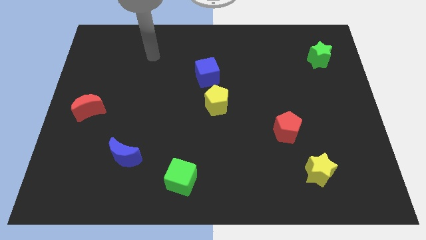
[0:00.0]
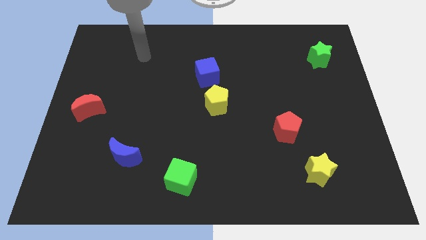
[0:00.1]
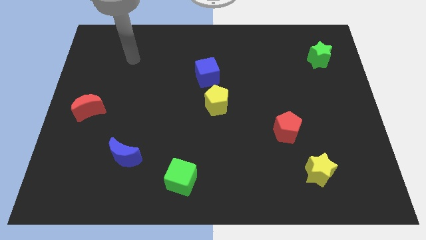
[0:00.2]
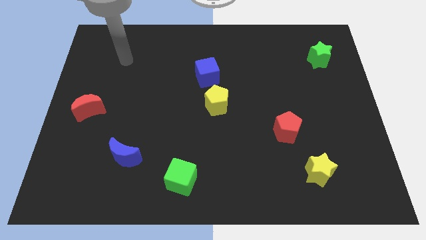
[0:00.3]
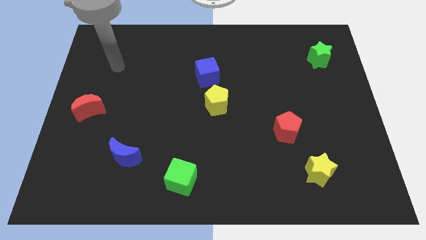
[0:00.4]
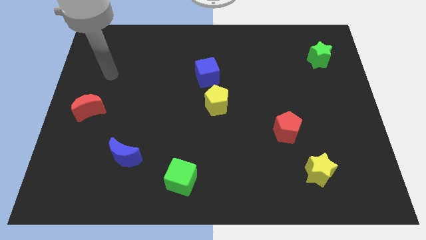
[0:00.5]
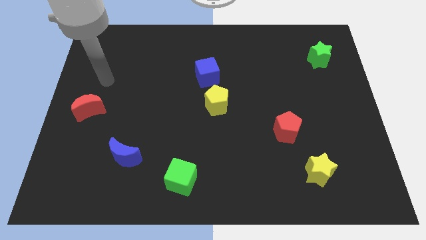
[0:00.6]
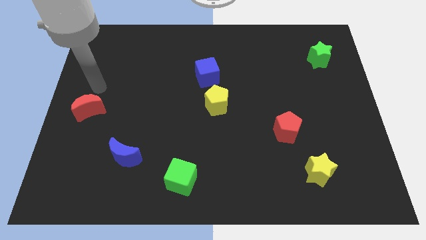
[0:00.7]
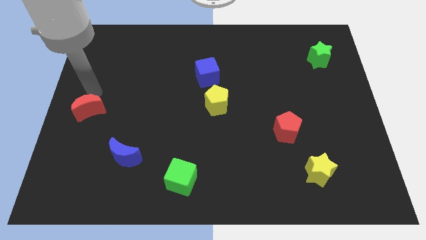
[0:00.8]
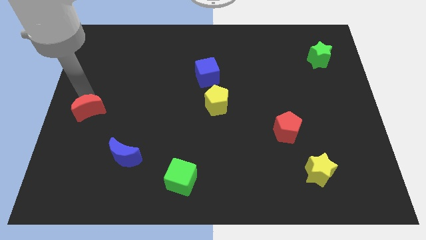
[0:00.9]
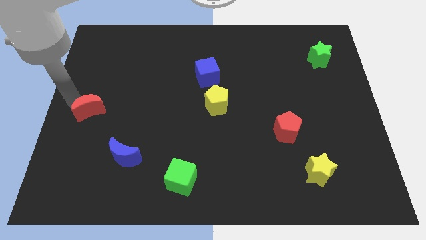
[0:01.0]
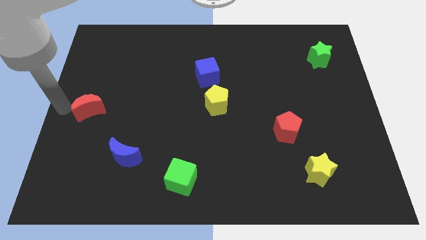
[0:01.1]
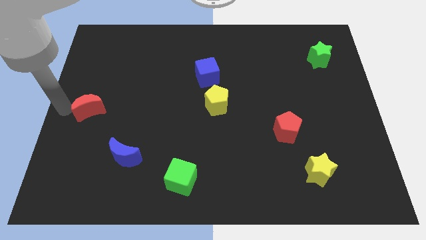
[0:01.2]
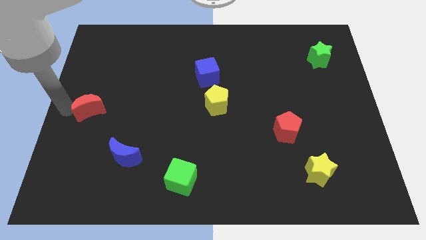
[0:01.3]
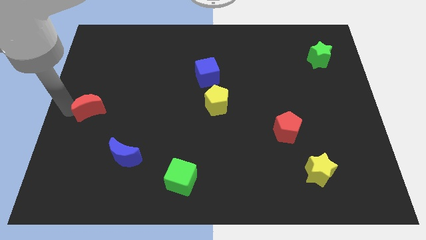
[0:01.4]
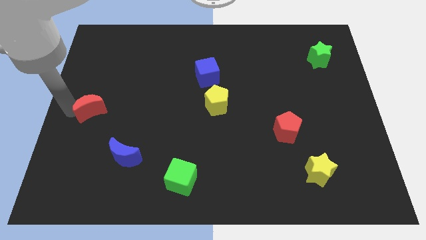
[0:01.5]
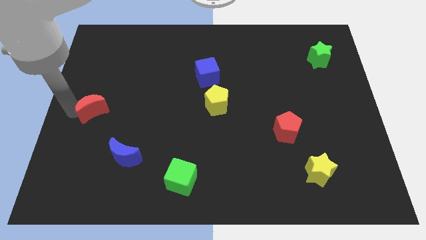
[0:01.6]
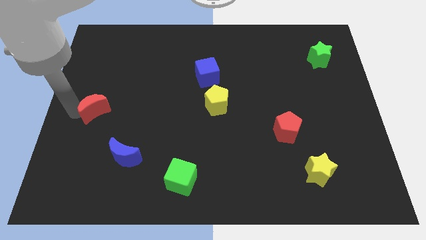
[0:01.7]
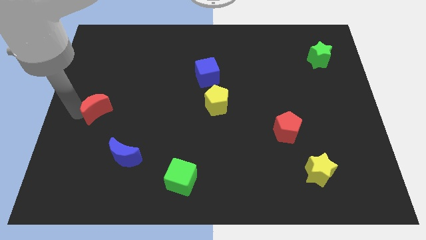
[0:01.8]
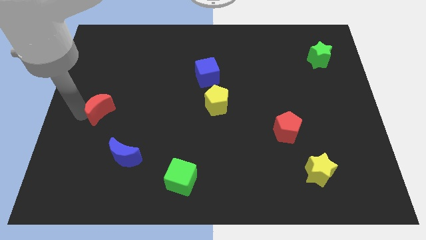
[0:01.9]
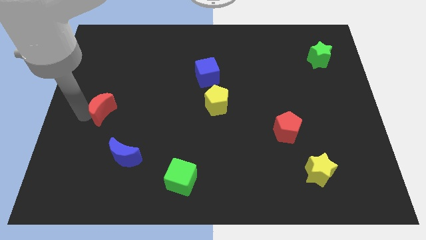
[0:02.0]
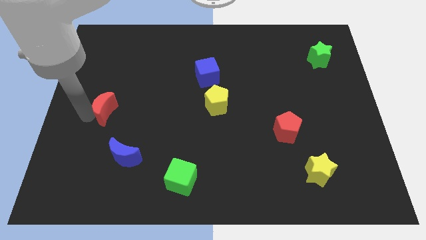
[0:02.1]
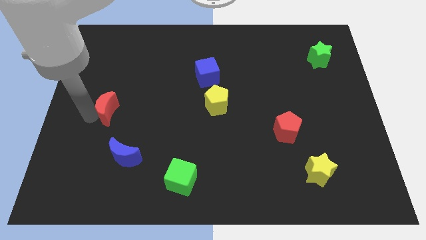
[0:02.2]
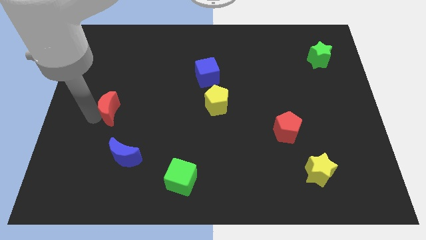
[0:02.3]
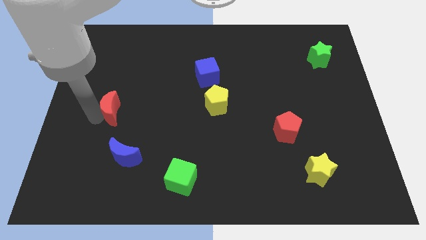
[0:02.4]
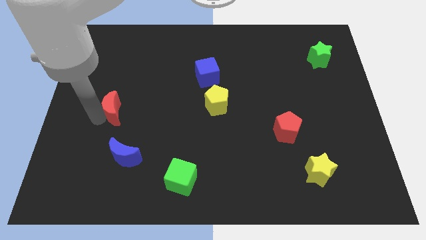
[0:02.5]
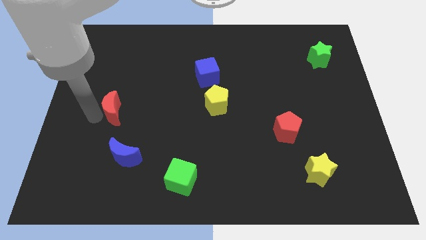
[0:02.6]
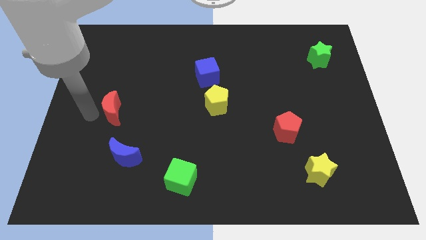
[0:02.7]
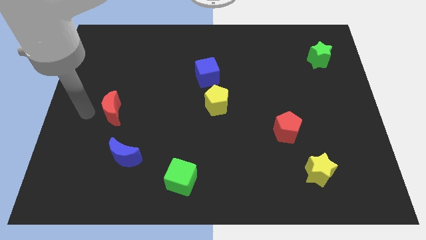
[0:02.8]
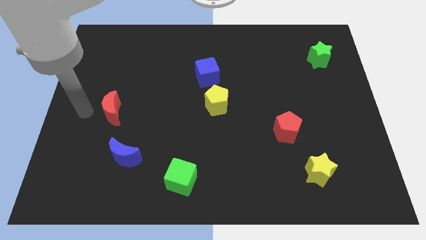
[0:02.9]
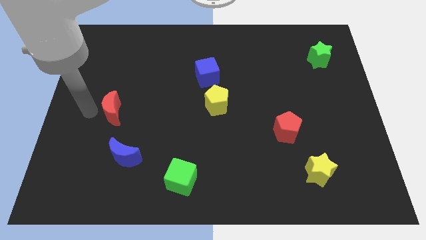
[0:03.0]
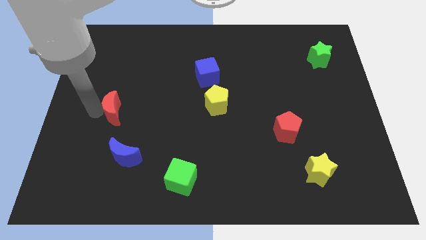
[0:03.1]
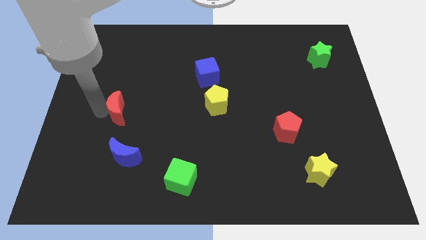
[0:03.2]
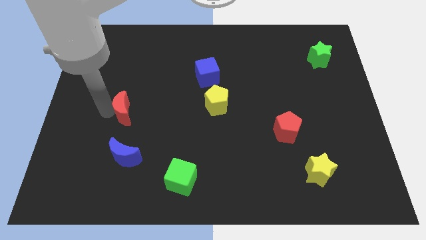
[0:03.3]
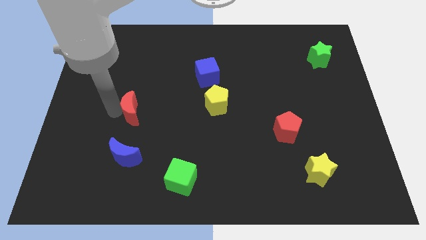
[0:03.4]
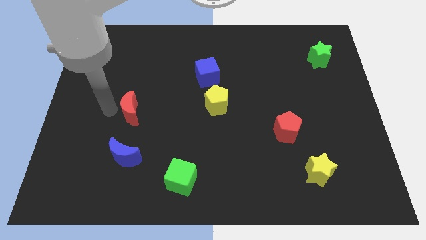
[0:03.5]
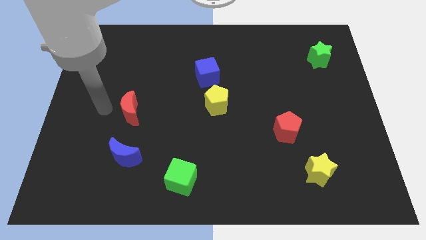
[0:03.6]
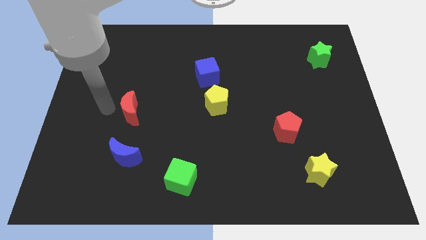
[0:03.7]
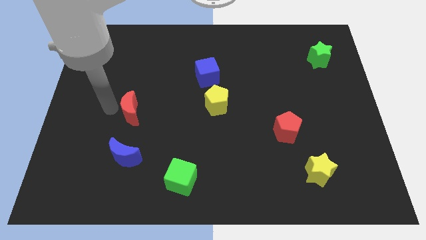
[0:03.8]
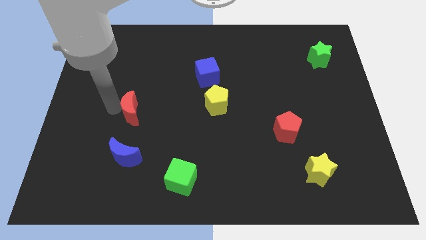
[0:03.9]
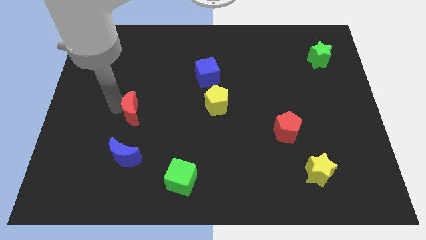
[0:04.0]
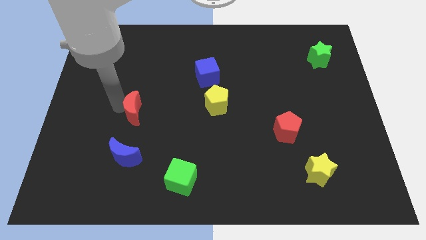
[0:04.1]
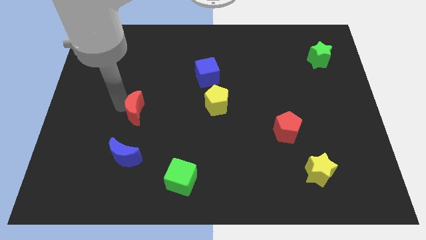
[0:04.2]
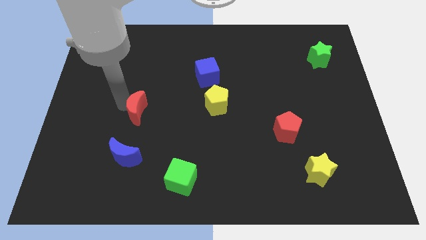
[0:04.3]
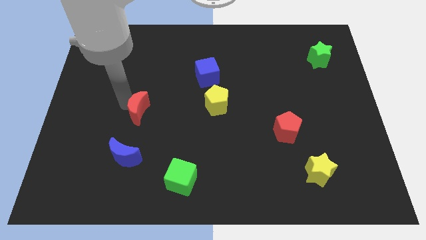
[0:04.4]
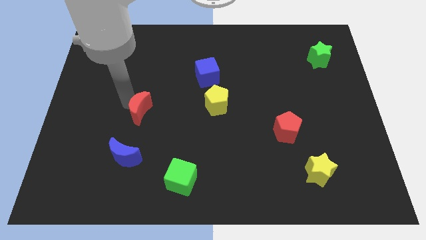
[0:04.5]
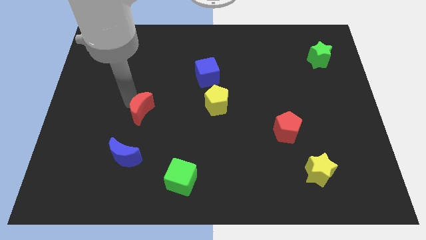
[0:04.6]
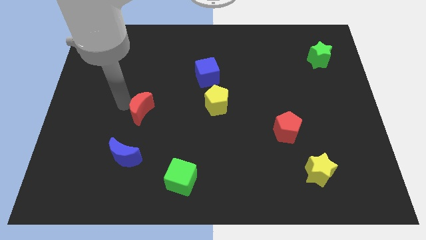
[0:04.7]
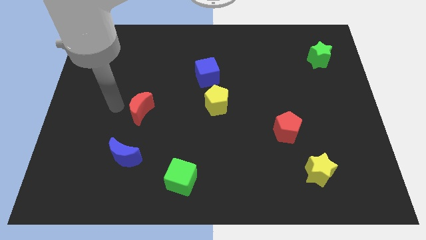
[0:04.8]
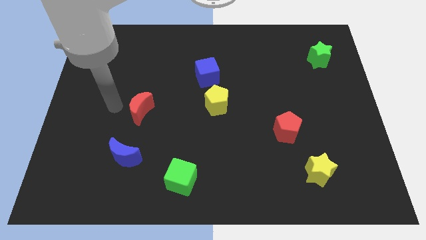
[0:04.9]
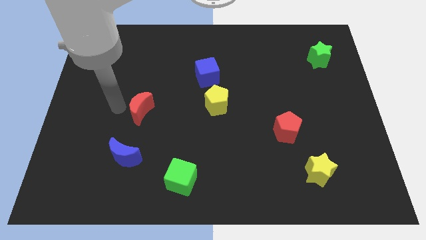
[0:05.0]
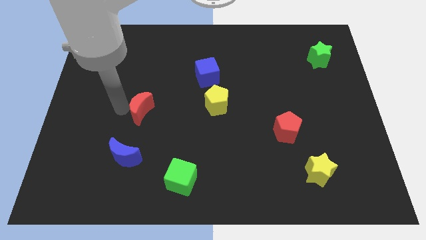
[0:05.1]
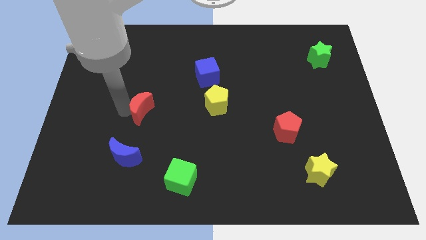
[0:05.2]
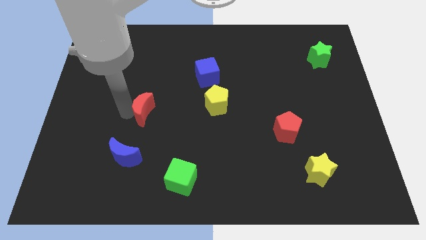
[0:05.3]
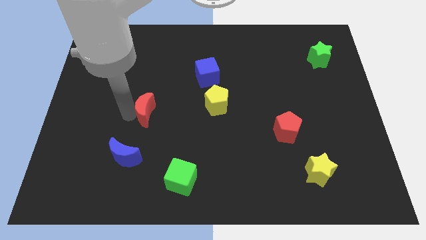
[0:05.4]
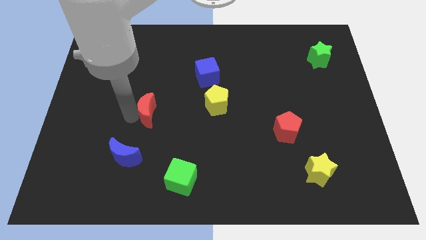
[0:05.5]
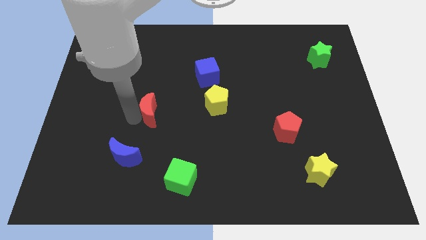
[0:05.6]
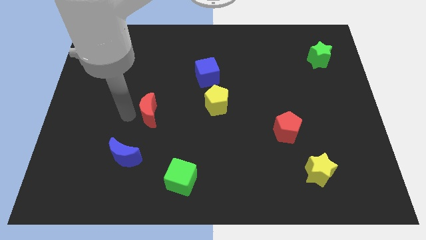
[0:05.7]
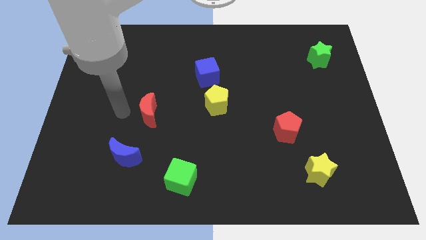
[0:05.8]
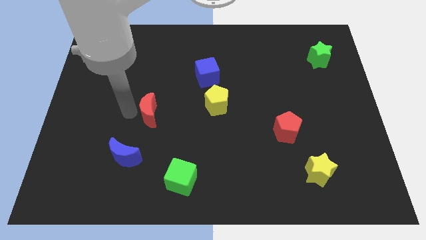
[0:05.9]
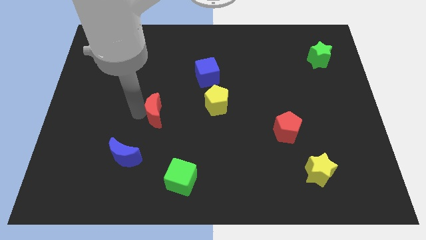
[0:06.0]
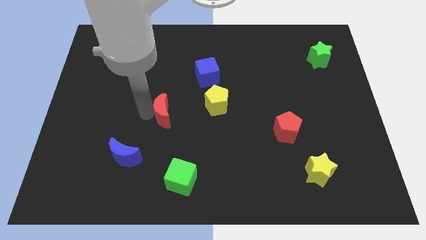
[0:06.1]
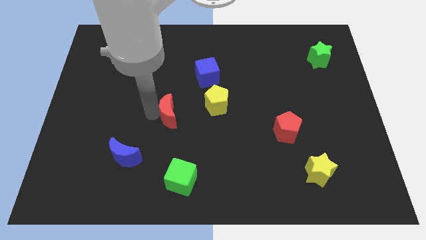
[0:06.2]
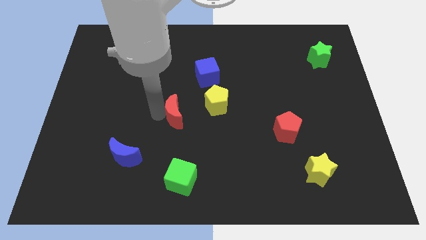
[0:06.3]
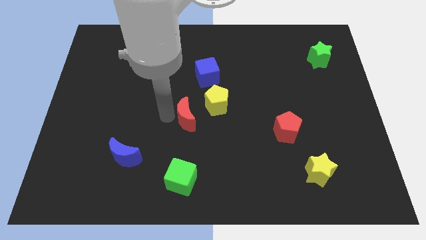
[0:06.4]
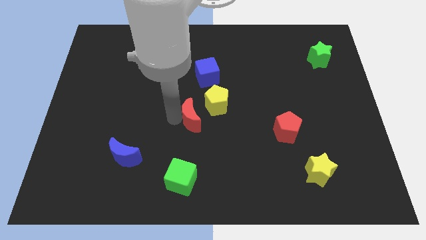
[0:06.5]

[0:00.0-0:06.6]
move the red moon to the bottom side of the blue cube

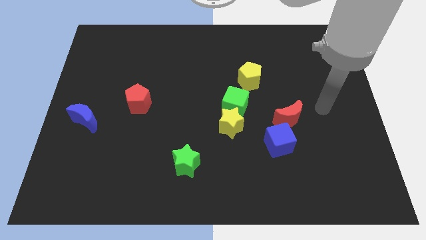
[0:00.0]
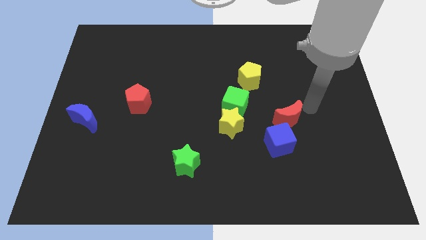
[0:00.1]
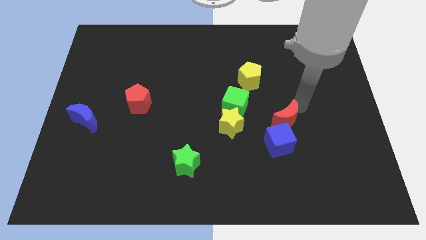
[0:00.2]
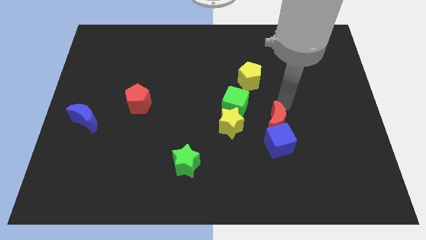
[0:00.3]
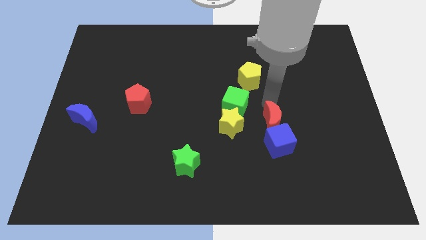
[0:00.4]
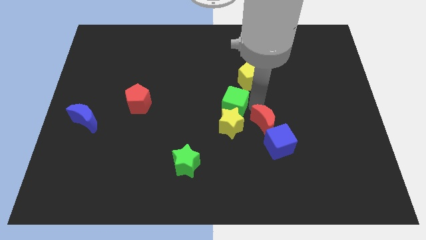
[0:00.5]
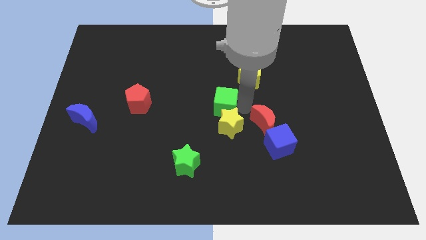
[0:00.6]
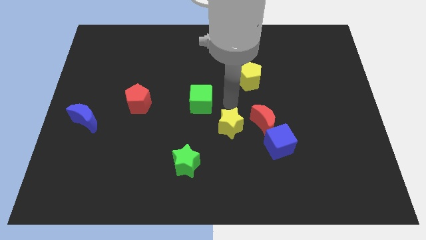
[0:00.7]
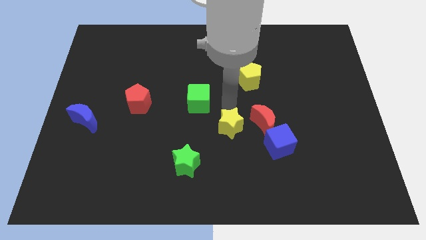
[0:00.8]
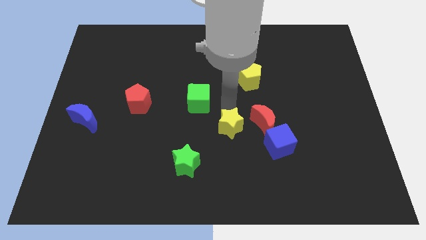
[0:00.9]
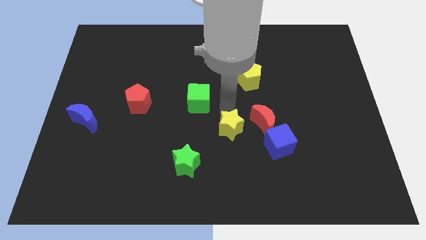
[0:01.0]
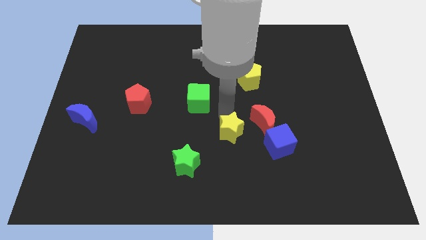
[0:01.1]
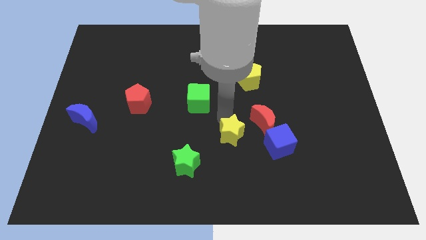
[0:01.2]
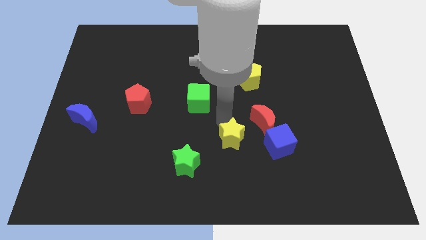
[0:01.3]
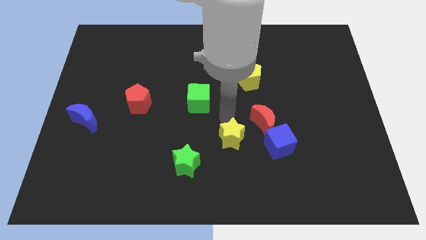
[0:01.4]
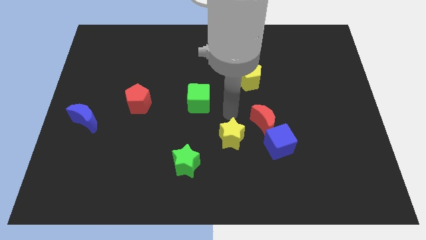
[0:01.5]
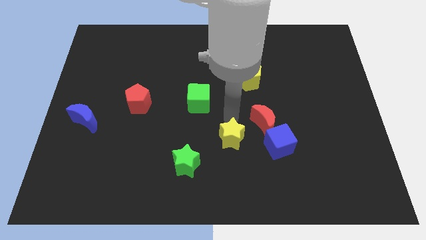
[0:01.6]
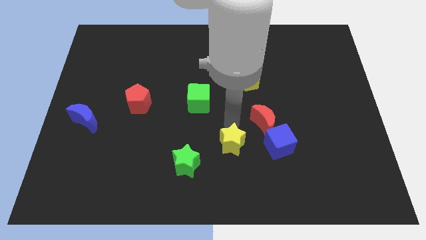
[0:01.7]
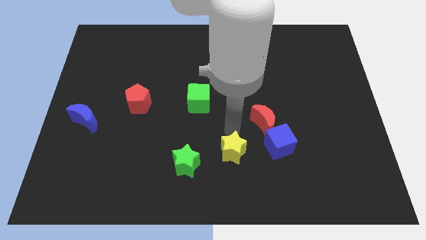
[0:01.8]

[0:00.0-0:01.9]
slide the yellow star right of the green star
